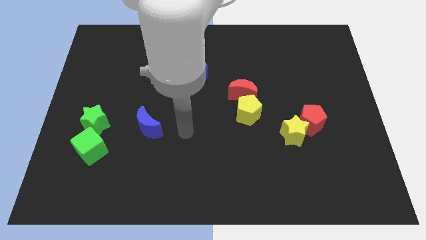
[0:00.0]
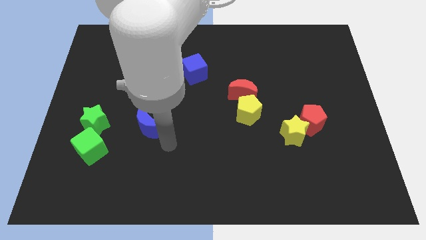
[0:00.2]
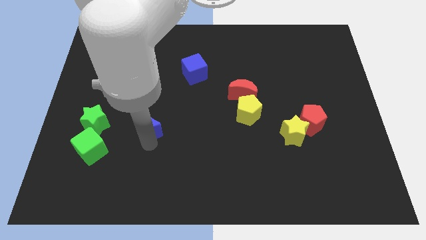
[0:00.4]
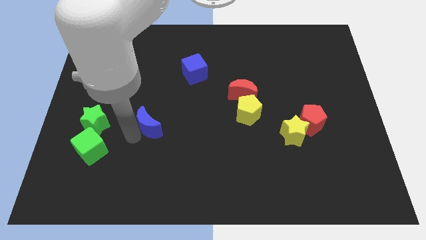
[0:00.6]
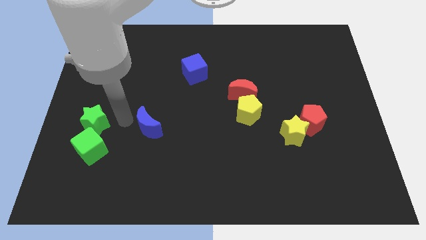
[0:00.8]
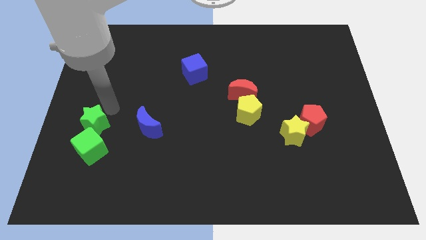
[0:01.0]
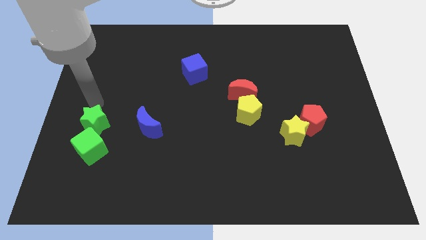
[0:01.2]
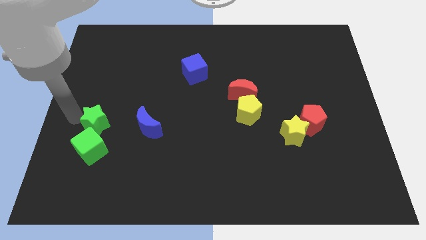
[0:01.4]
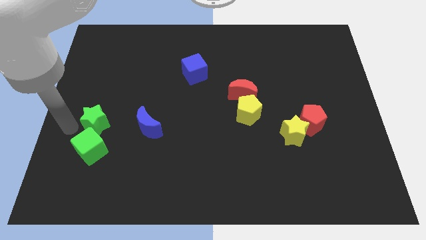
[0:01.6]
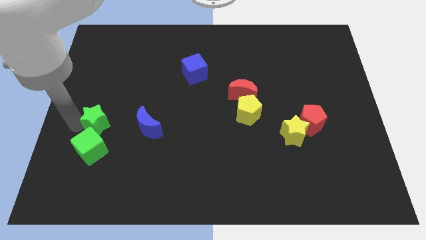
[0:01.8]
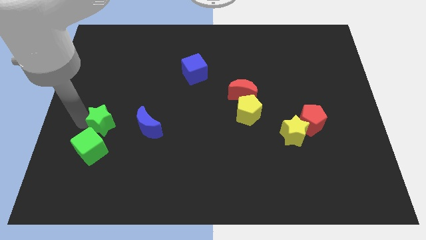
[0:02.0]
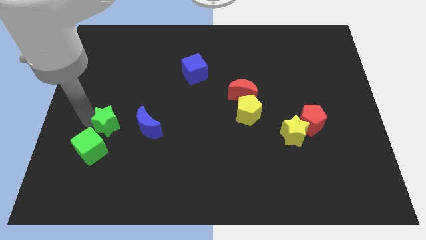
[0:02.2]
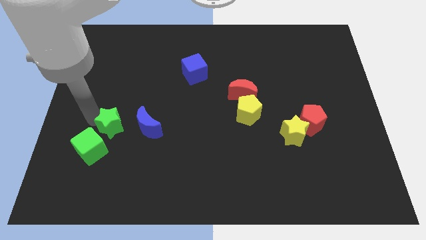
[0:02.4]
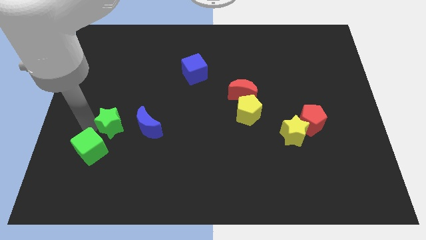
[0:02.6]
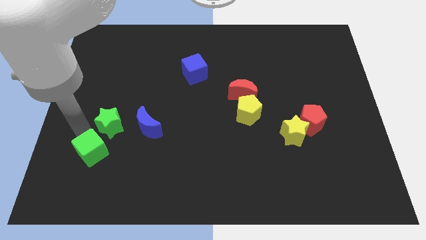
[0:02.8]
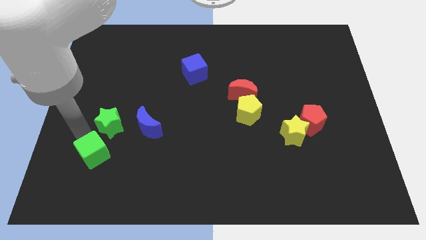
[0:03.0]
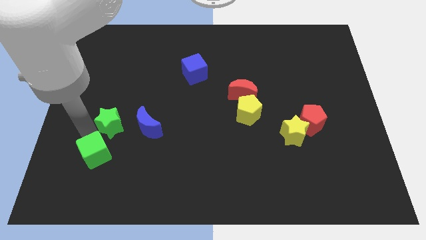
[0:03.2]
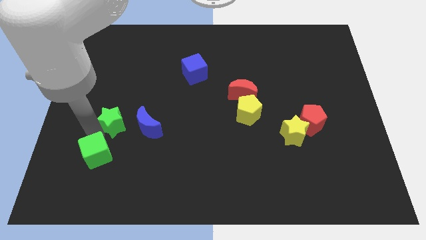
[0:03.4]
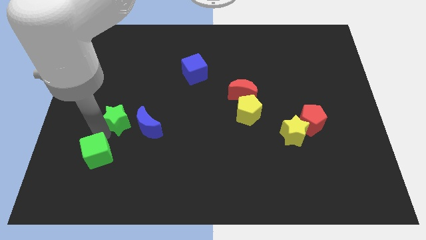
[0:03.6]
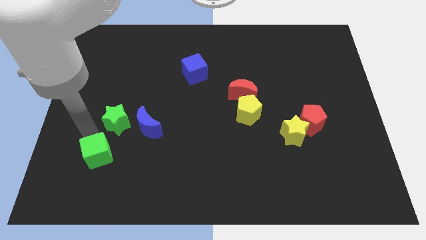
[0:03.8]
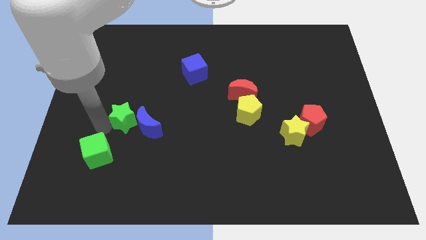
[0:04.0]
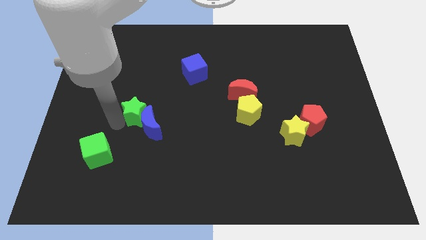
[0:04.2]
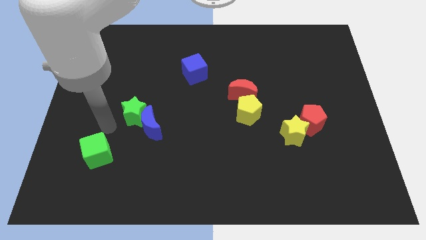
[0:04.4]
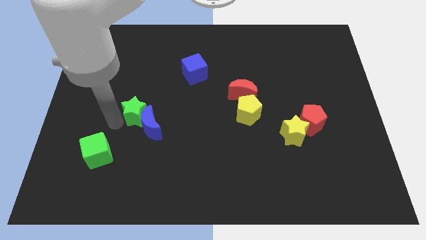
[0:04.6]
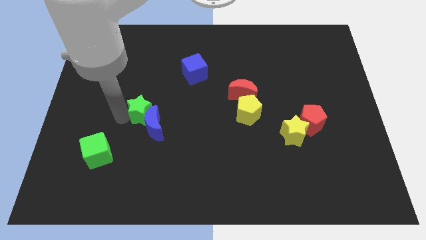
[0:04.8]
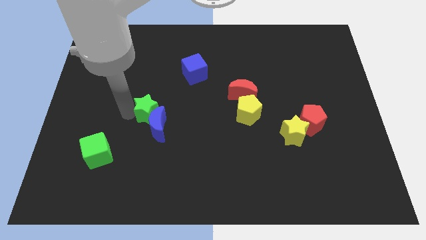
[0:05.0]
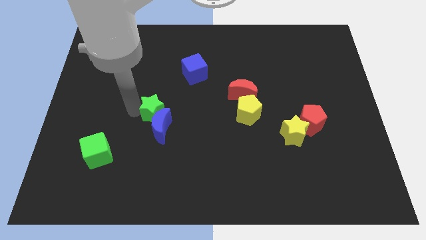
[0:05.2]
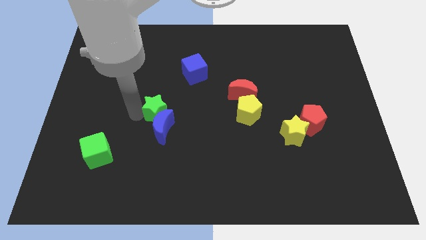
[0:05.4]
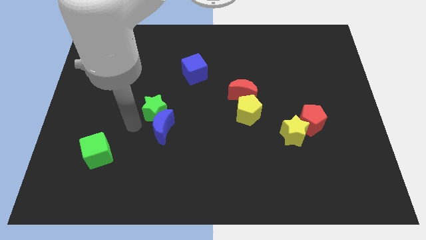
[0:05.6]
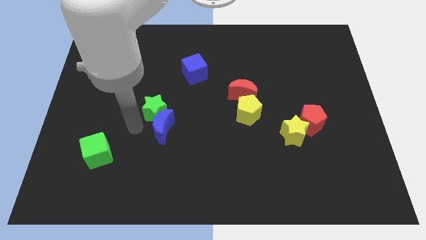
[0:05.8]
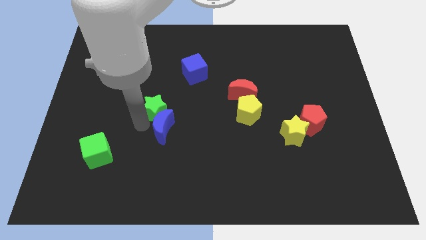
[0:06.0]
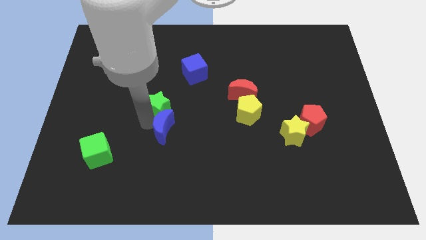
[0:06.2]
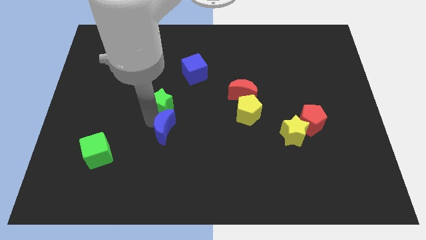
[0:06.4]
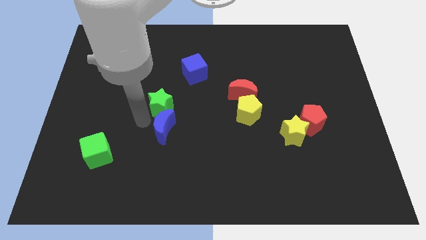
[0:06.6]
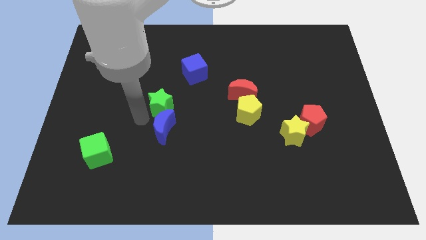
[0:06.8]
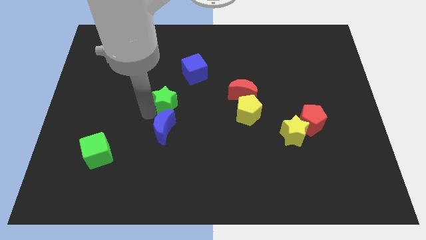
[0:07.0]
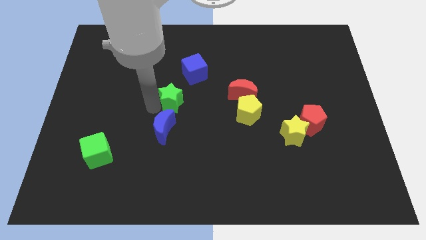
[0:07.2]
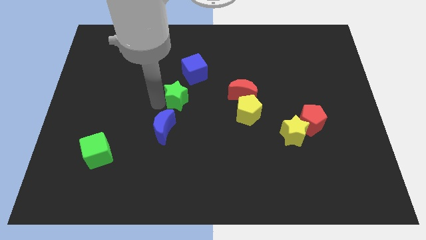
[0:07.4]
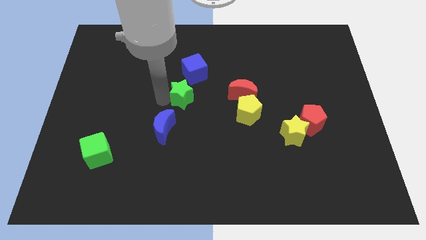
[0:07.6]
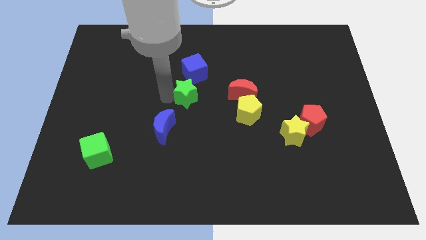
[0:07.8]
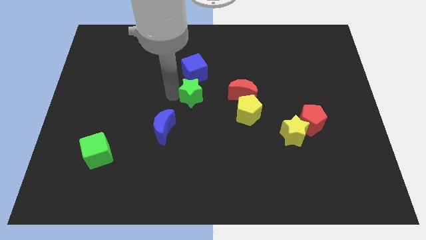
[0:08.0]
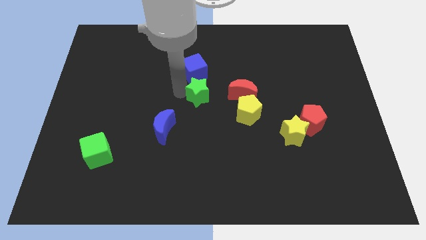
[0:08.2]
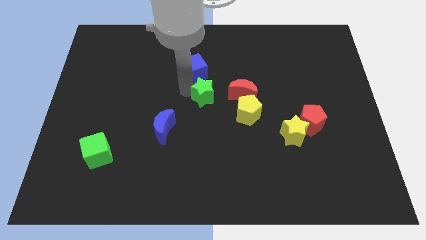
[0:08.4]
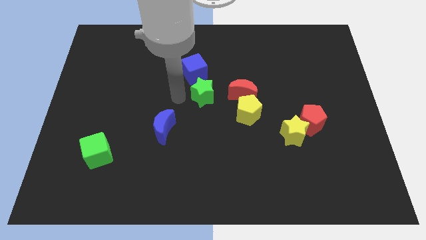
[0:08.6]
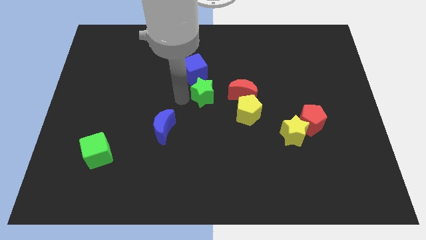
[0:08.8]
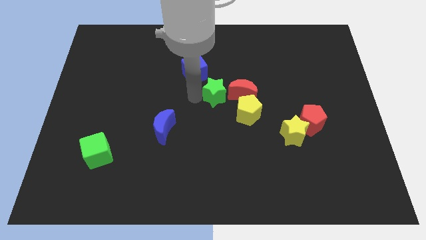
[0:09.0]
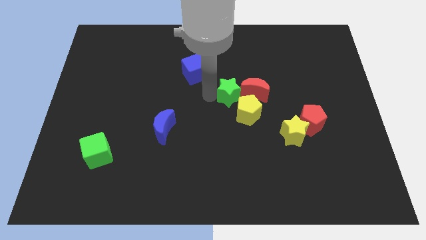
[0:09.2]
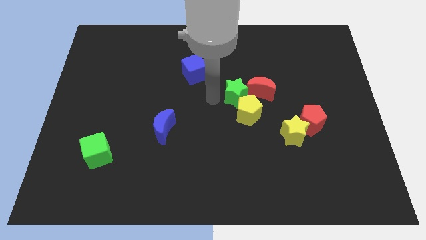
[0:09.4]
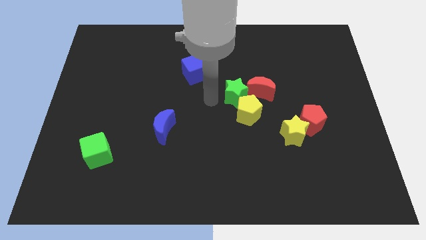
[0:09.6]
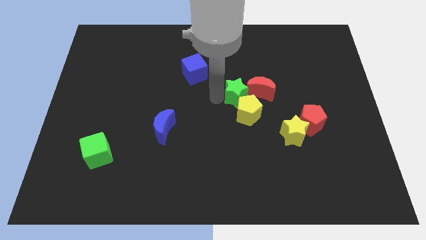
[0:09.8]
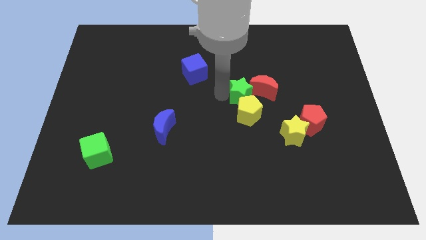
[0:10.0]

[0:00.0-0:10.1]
move the green star towards the red moon

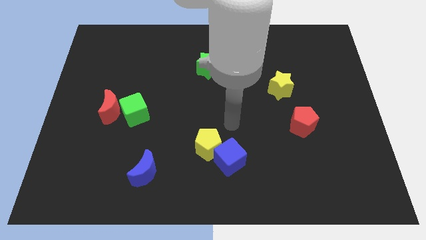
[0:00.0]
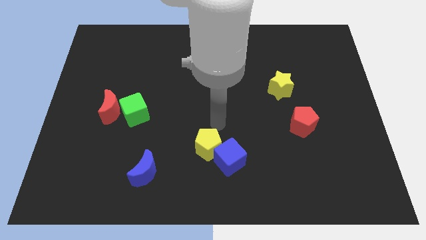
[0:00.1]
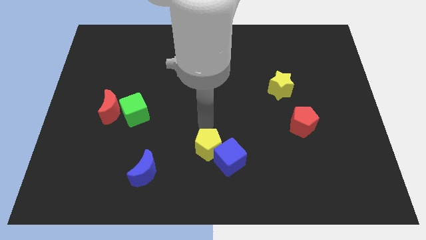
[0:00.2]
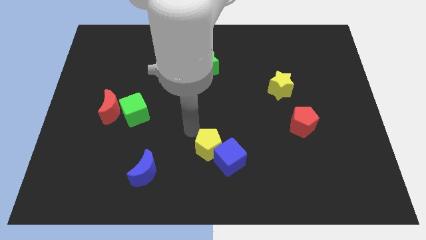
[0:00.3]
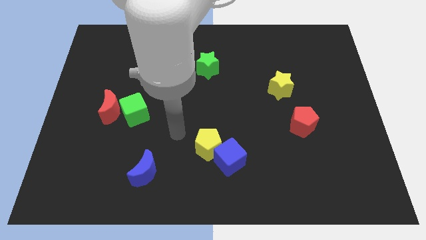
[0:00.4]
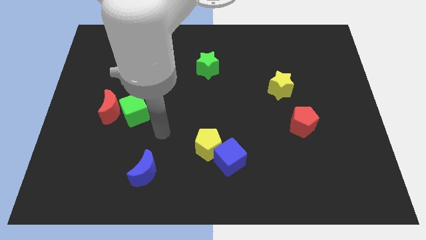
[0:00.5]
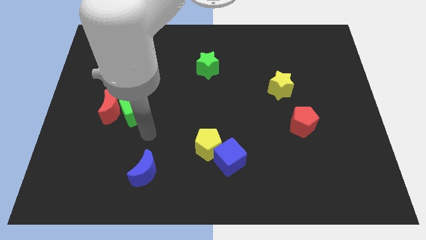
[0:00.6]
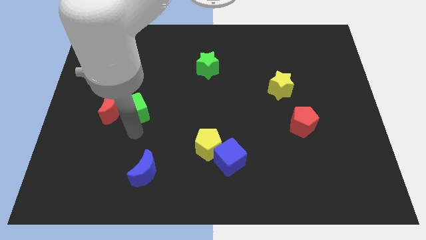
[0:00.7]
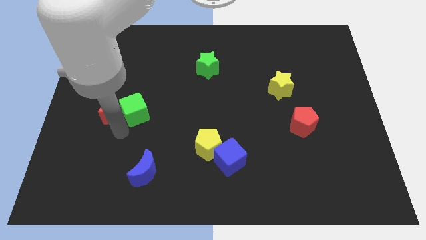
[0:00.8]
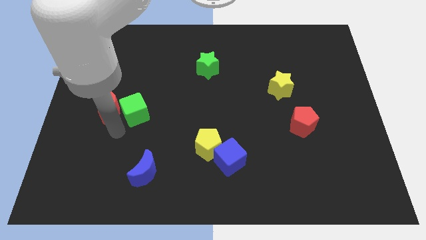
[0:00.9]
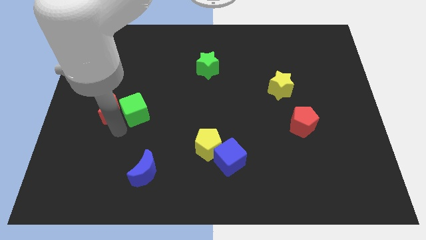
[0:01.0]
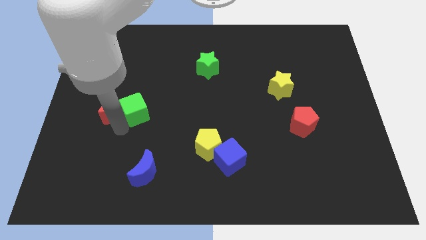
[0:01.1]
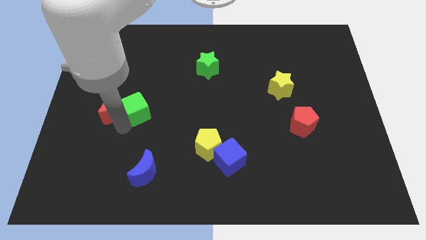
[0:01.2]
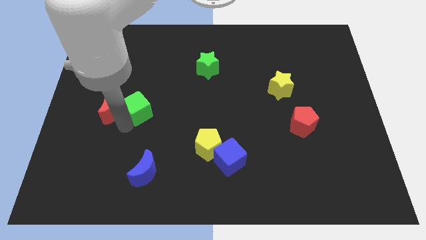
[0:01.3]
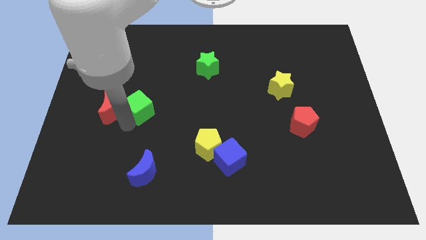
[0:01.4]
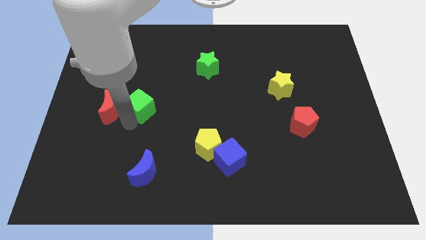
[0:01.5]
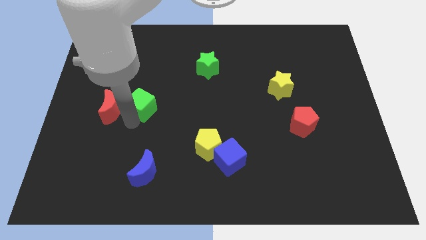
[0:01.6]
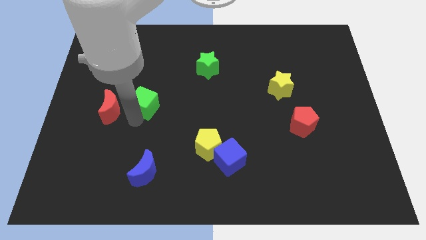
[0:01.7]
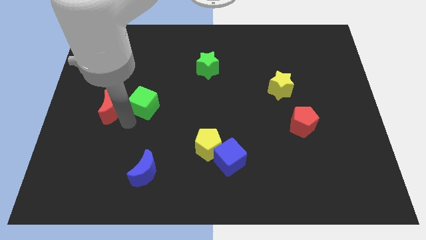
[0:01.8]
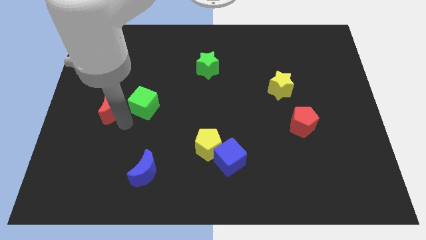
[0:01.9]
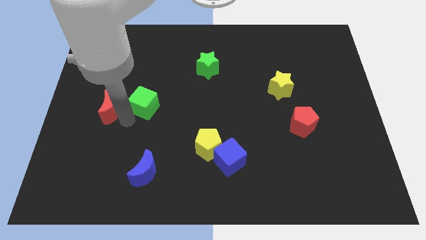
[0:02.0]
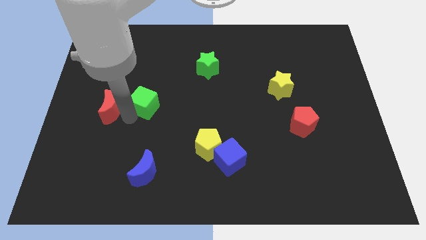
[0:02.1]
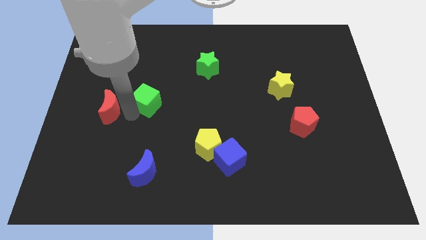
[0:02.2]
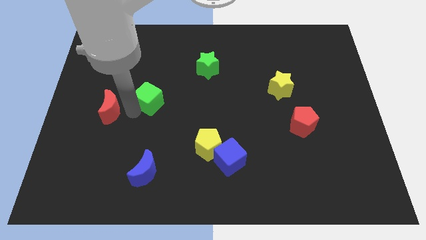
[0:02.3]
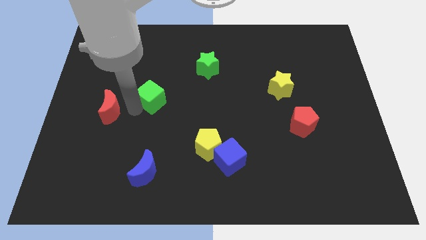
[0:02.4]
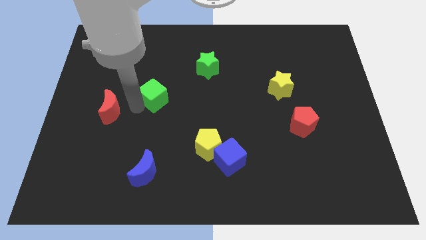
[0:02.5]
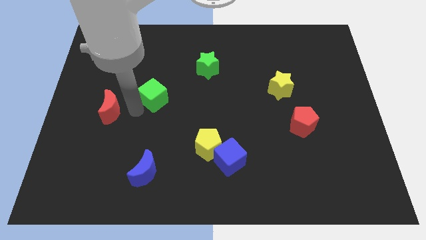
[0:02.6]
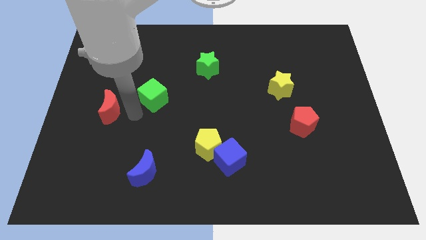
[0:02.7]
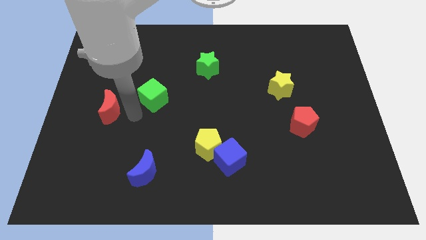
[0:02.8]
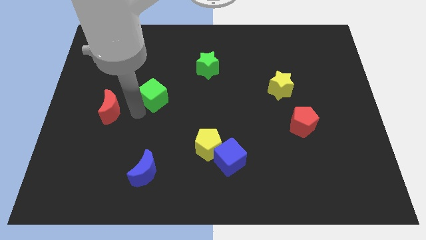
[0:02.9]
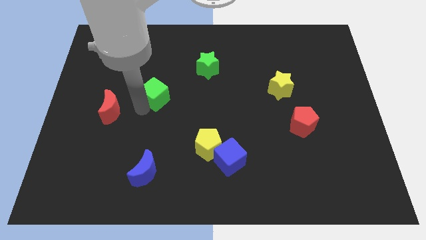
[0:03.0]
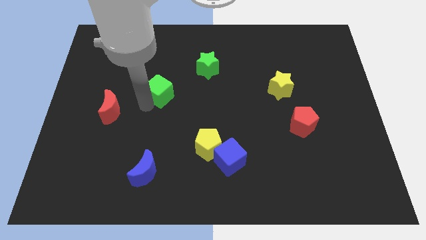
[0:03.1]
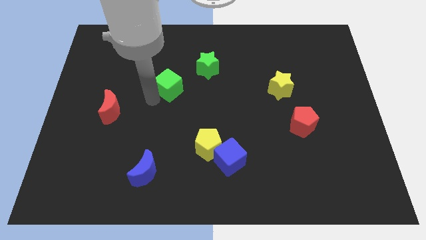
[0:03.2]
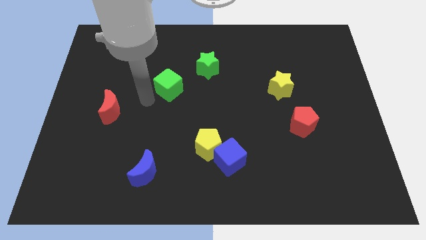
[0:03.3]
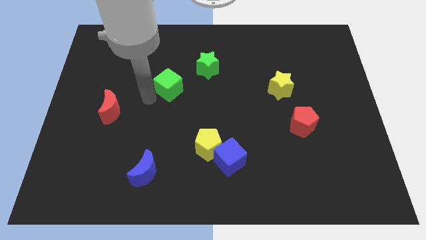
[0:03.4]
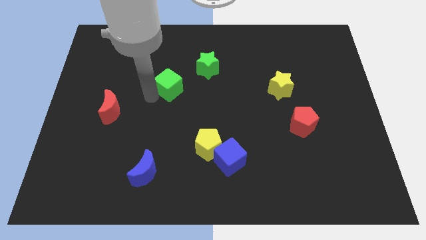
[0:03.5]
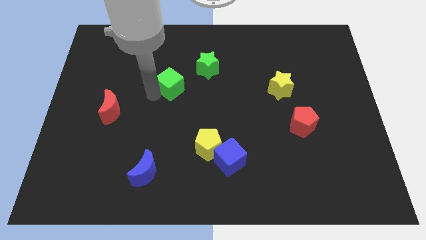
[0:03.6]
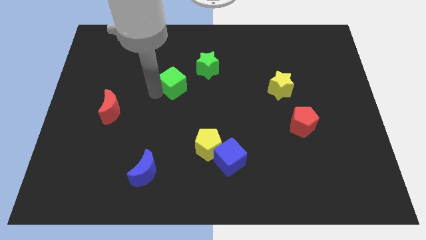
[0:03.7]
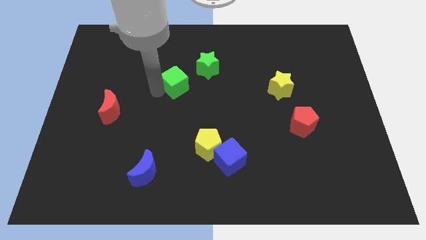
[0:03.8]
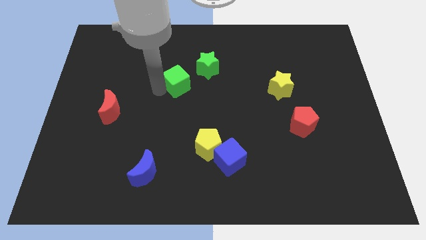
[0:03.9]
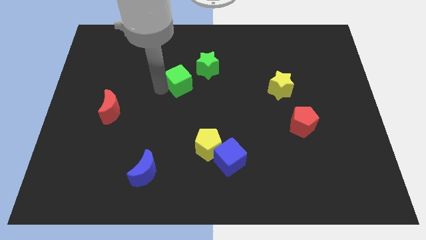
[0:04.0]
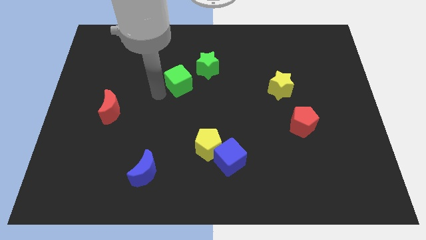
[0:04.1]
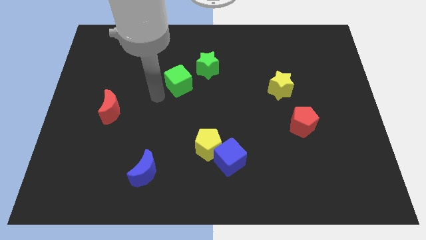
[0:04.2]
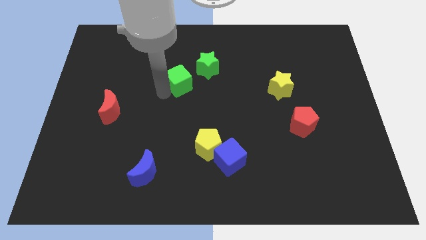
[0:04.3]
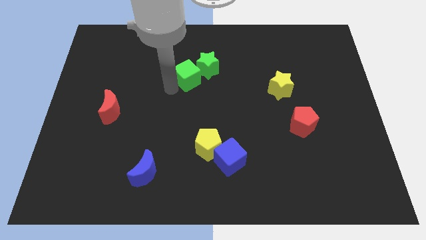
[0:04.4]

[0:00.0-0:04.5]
push the green cube towards the green star
